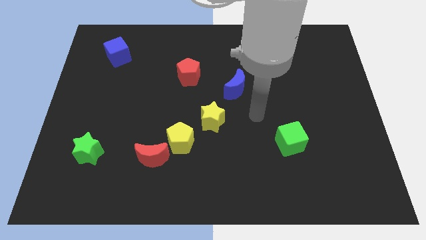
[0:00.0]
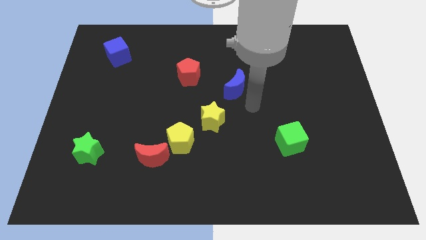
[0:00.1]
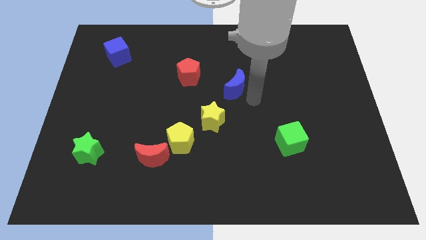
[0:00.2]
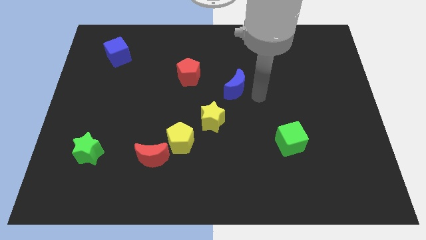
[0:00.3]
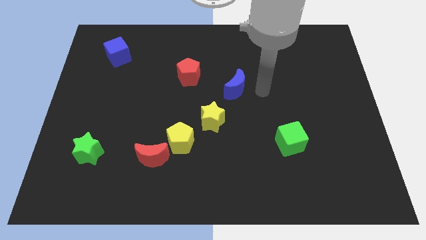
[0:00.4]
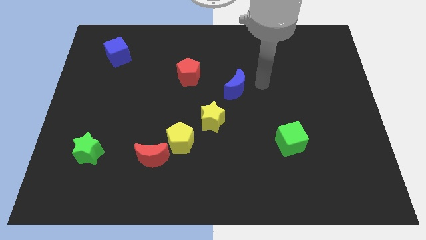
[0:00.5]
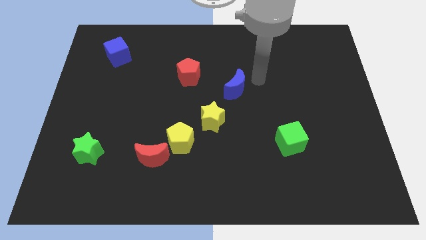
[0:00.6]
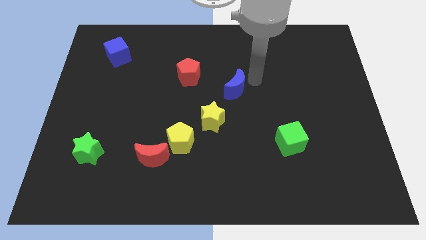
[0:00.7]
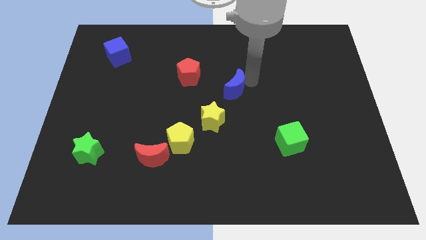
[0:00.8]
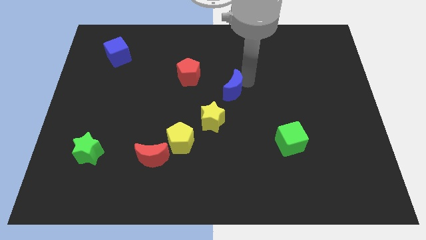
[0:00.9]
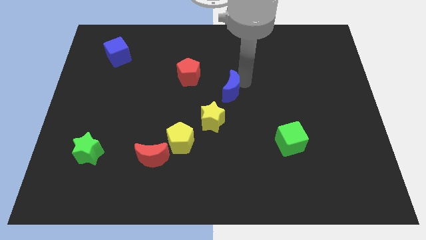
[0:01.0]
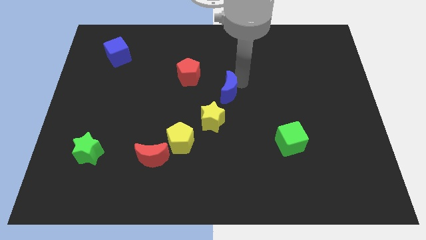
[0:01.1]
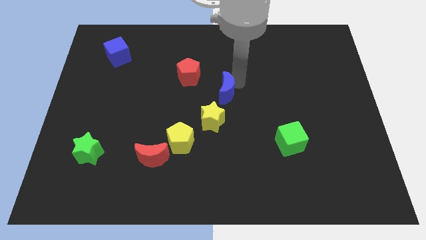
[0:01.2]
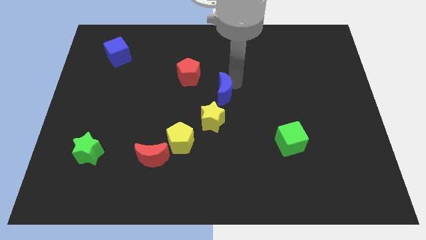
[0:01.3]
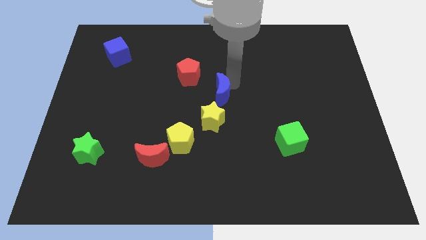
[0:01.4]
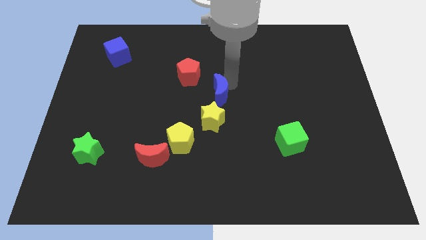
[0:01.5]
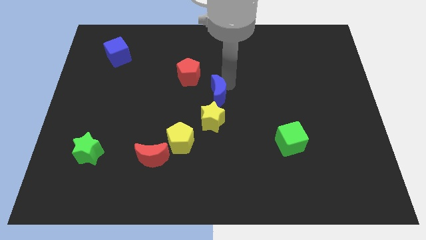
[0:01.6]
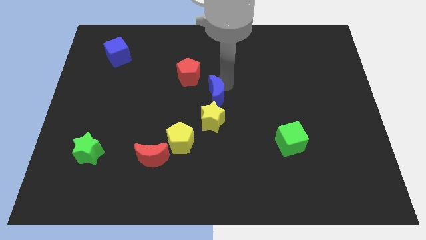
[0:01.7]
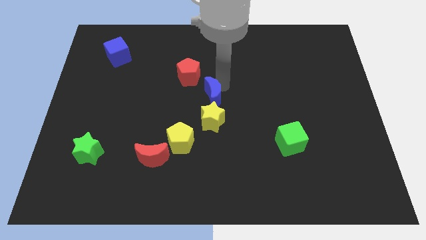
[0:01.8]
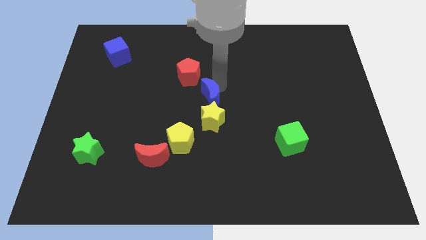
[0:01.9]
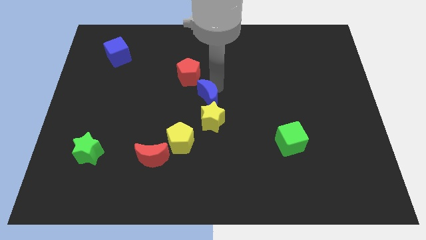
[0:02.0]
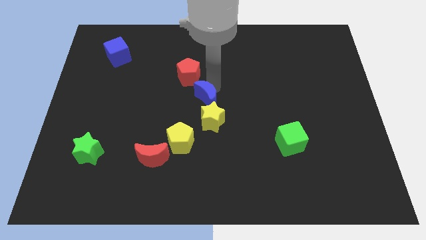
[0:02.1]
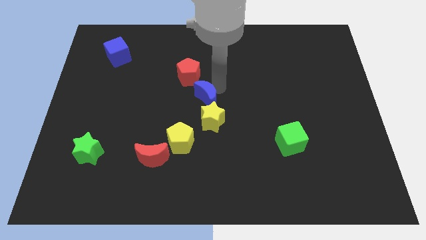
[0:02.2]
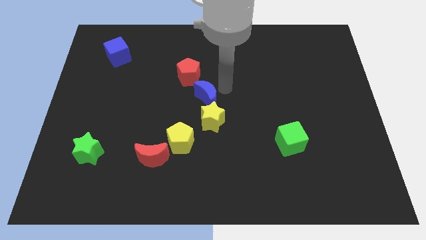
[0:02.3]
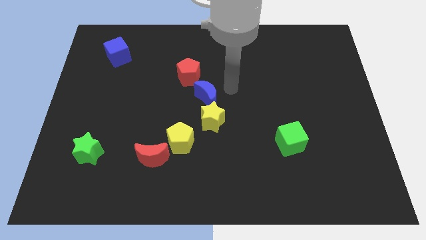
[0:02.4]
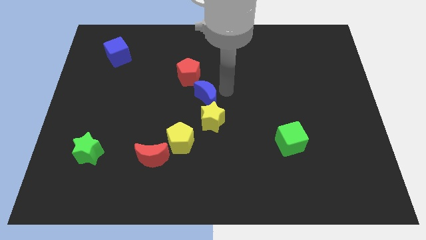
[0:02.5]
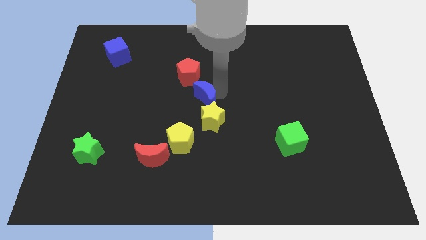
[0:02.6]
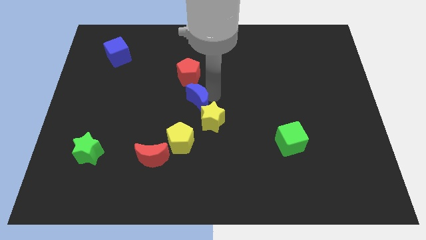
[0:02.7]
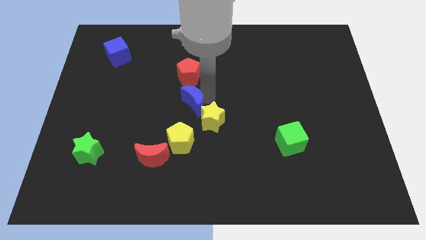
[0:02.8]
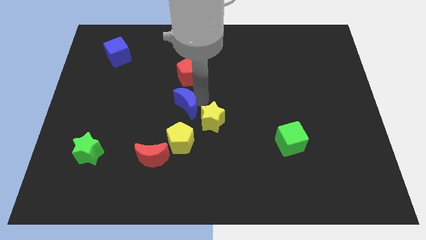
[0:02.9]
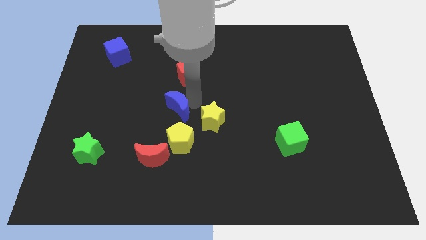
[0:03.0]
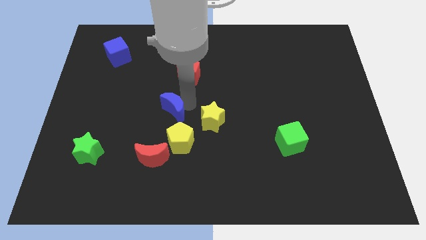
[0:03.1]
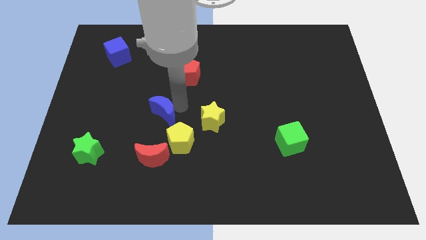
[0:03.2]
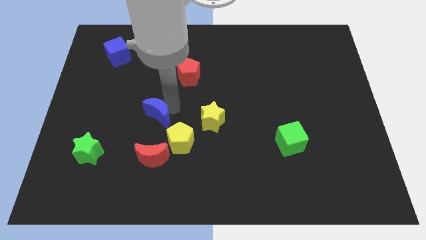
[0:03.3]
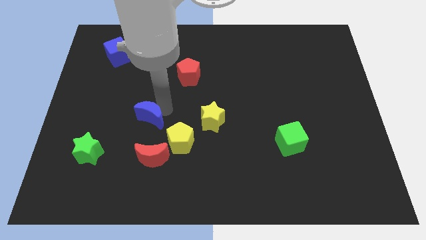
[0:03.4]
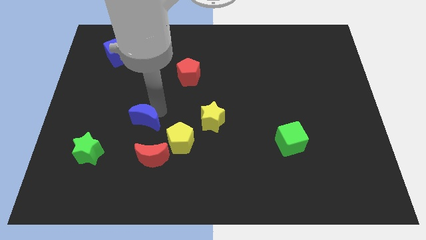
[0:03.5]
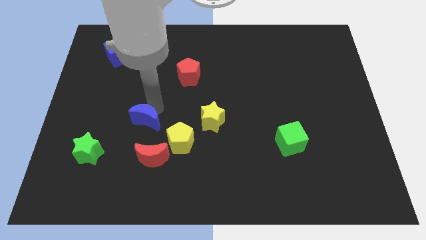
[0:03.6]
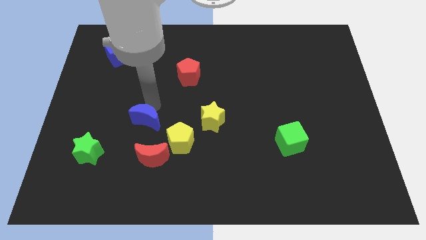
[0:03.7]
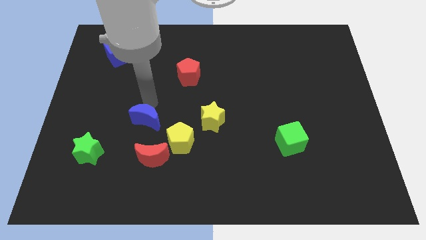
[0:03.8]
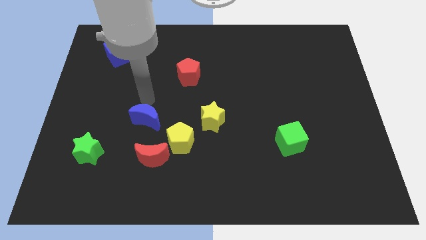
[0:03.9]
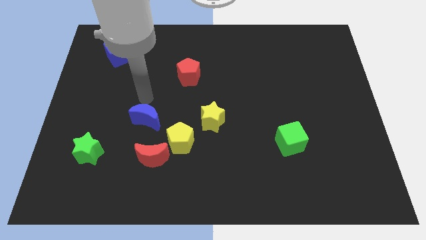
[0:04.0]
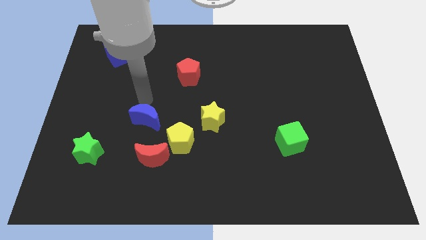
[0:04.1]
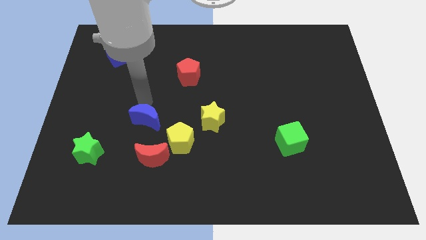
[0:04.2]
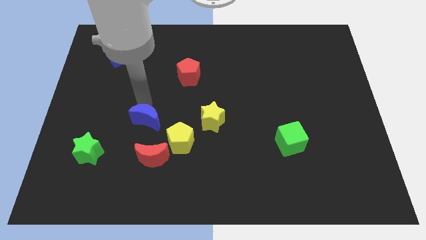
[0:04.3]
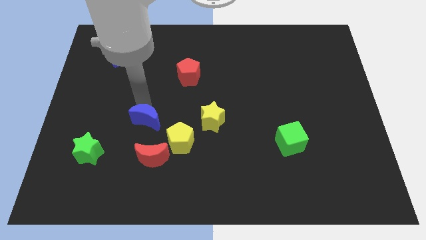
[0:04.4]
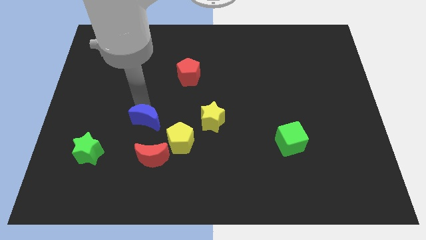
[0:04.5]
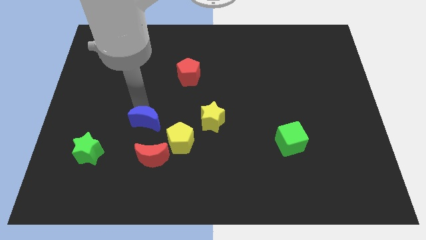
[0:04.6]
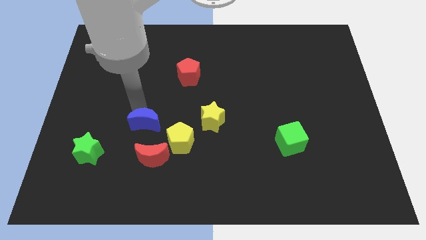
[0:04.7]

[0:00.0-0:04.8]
push the blue moon down and to the left

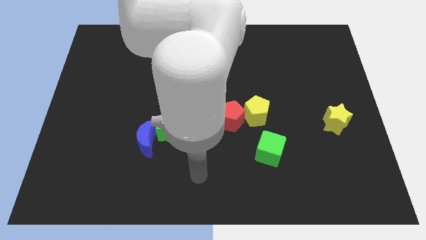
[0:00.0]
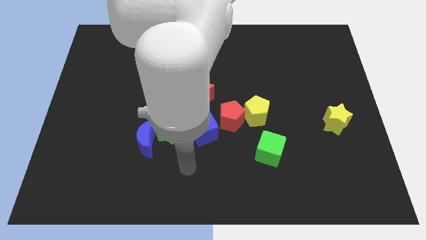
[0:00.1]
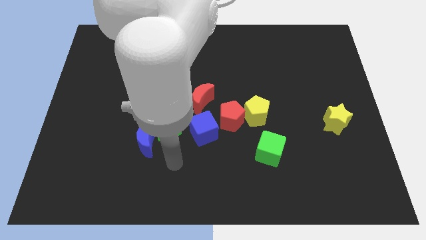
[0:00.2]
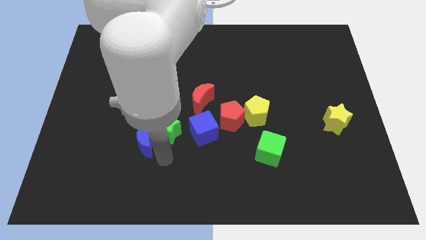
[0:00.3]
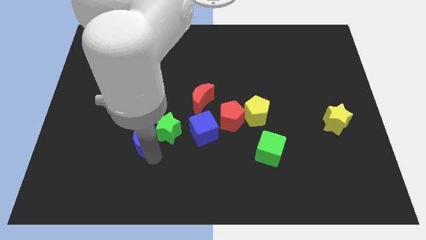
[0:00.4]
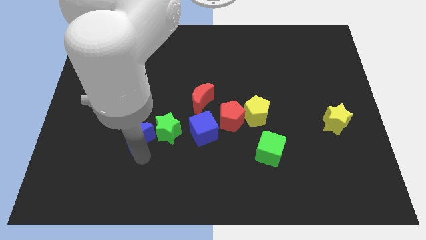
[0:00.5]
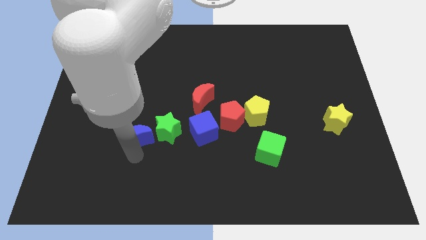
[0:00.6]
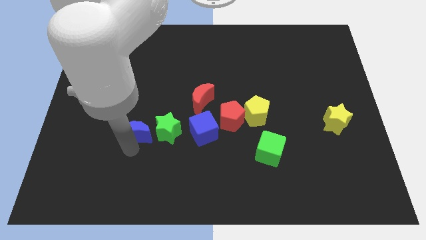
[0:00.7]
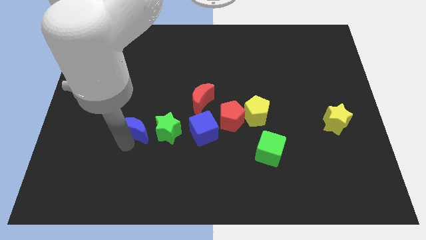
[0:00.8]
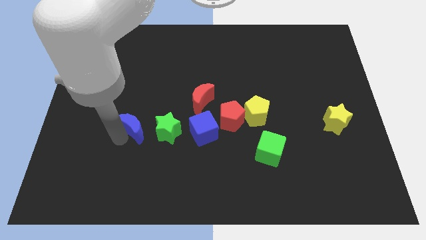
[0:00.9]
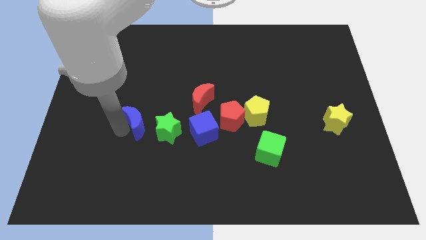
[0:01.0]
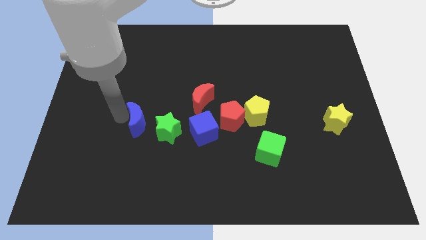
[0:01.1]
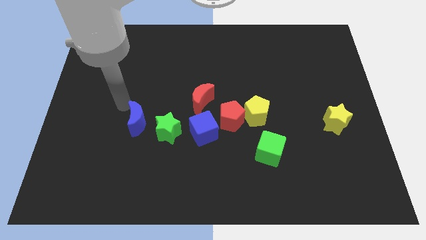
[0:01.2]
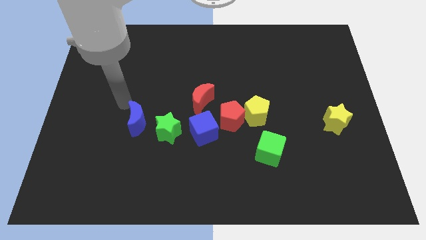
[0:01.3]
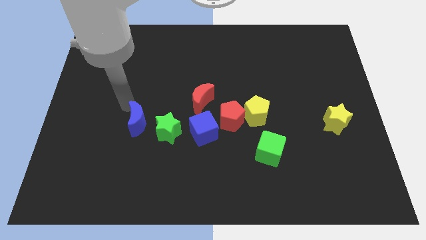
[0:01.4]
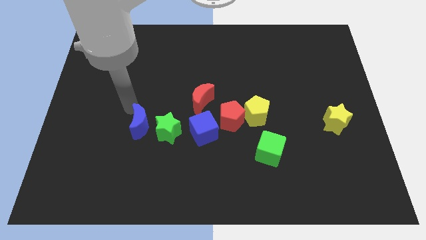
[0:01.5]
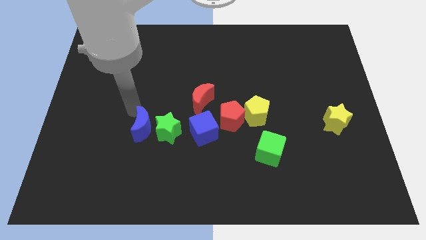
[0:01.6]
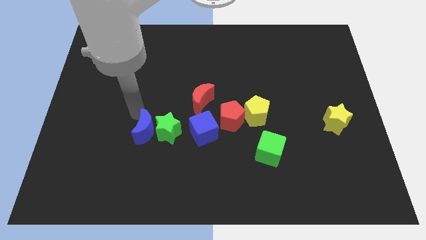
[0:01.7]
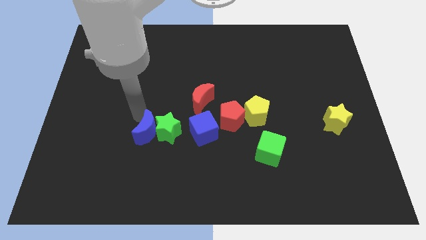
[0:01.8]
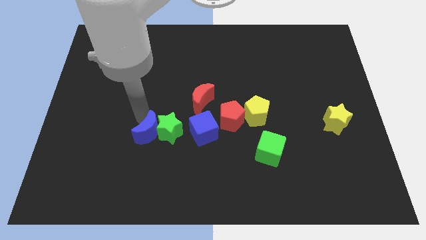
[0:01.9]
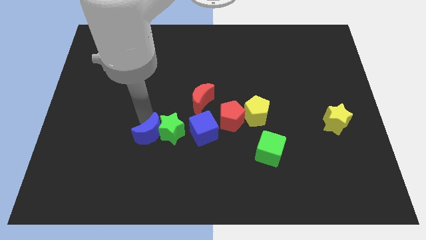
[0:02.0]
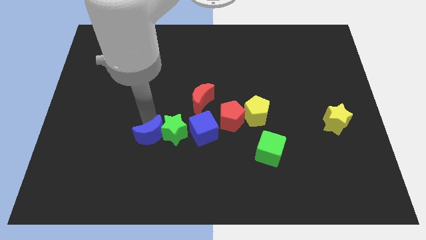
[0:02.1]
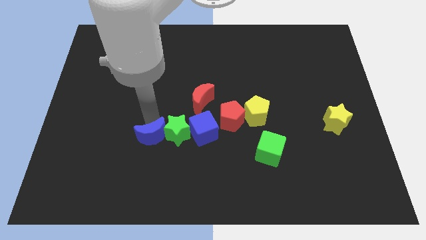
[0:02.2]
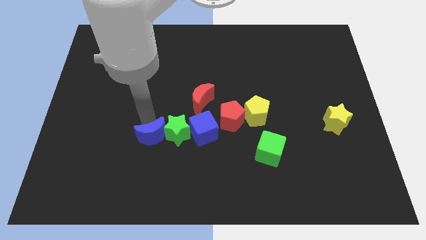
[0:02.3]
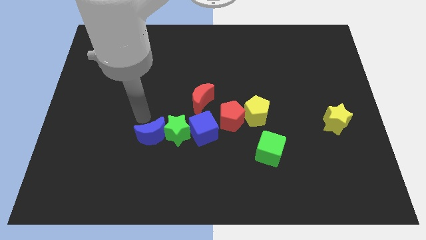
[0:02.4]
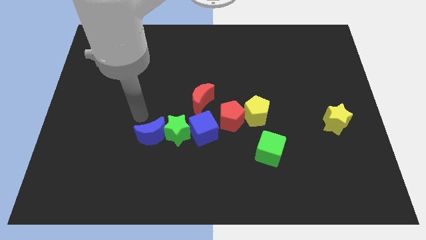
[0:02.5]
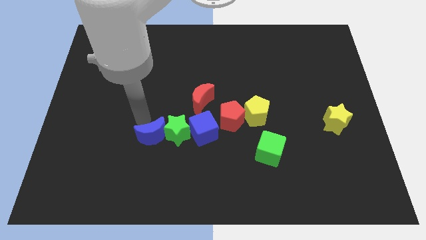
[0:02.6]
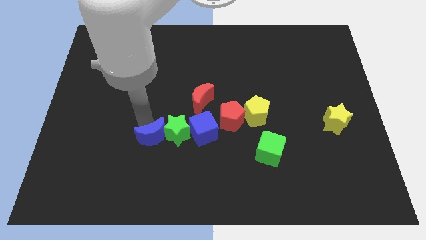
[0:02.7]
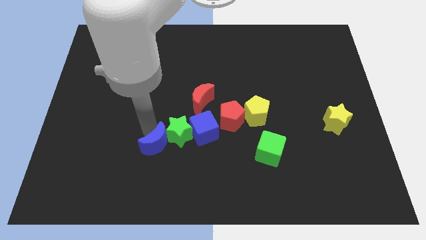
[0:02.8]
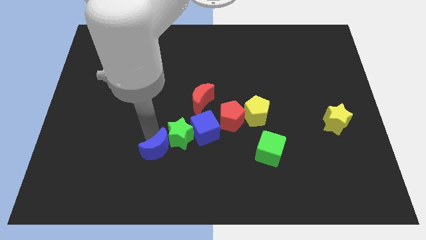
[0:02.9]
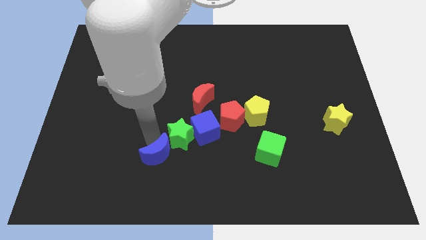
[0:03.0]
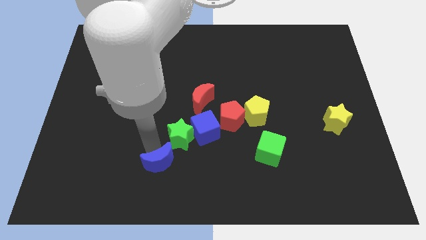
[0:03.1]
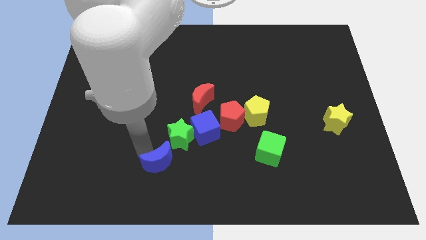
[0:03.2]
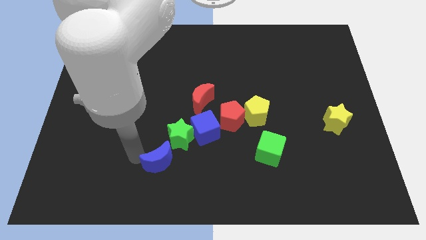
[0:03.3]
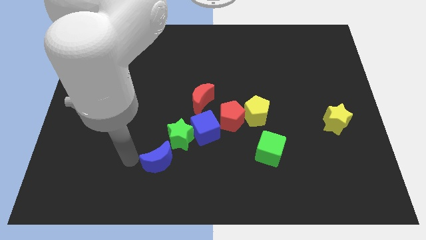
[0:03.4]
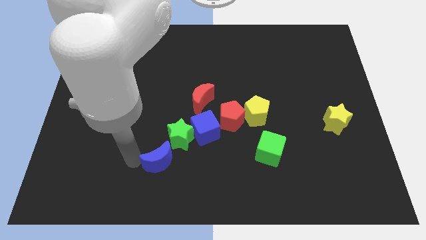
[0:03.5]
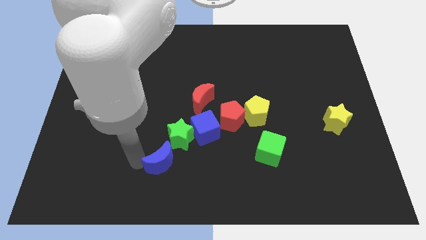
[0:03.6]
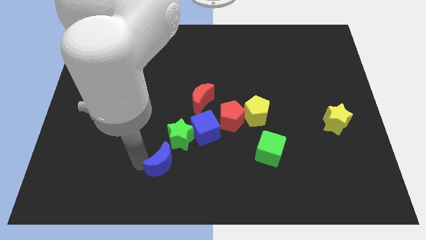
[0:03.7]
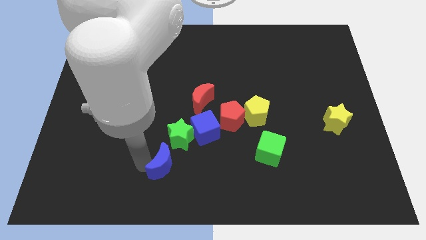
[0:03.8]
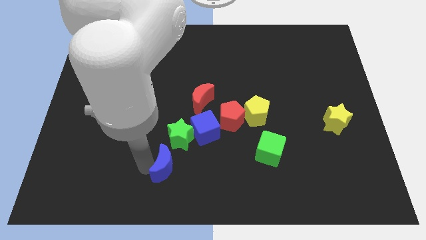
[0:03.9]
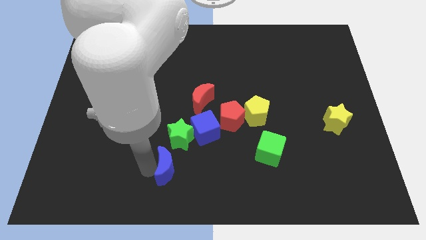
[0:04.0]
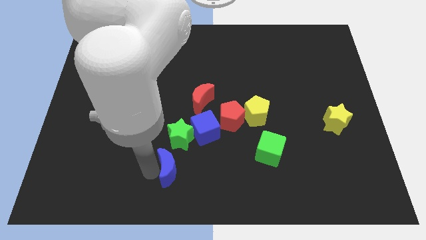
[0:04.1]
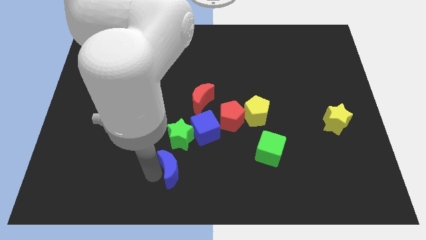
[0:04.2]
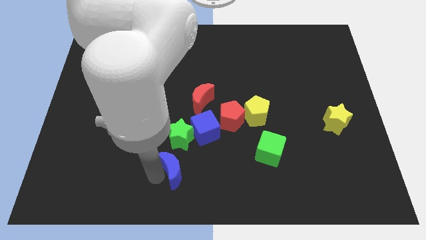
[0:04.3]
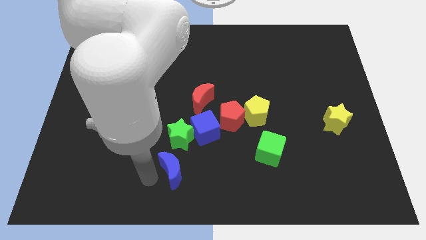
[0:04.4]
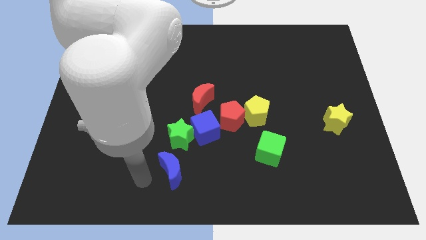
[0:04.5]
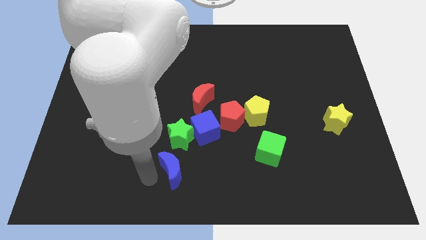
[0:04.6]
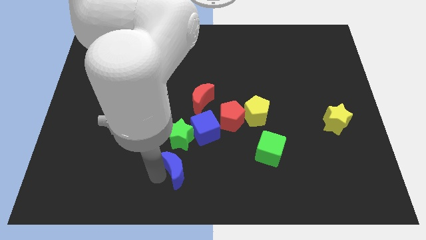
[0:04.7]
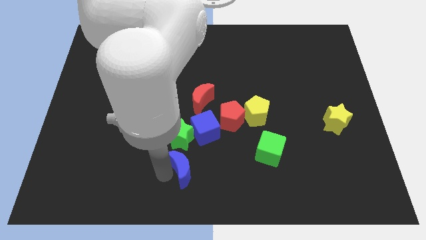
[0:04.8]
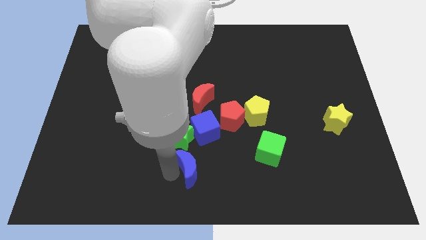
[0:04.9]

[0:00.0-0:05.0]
slide the blue moon slightly to the right
